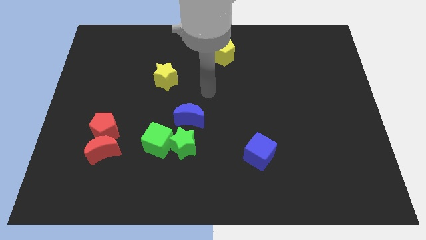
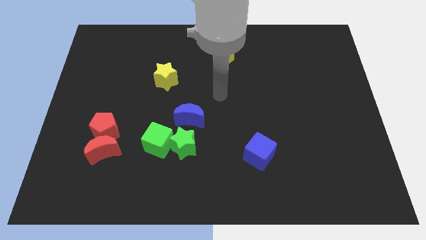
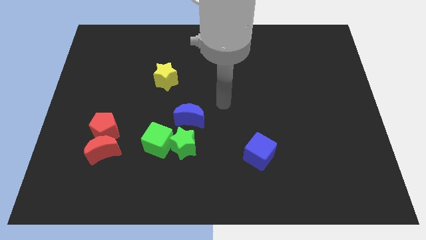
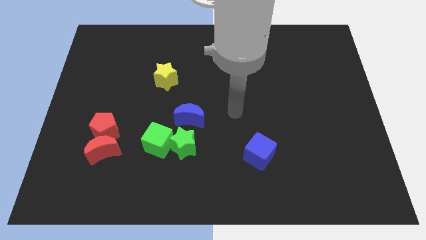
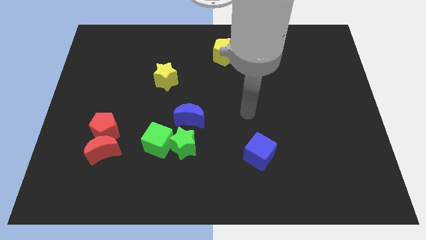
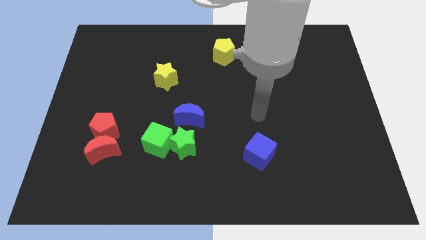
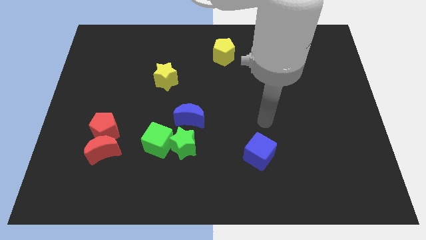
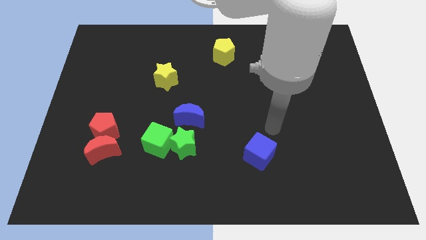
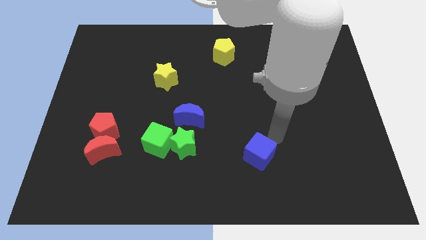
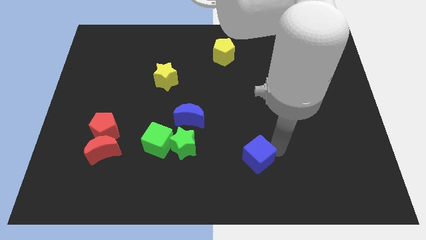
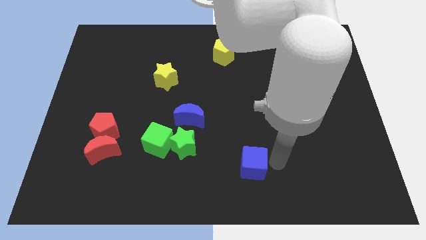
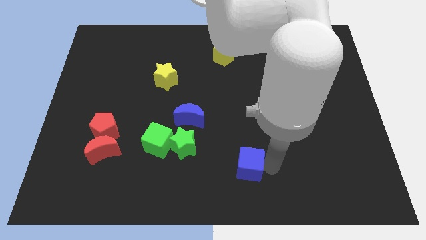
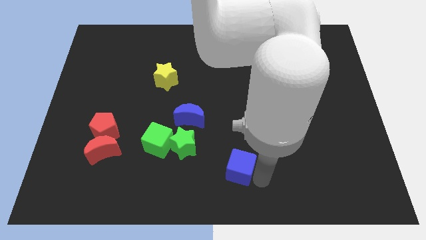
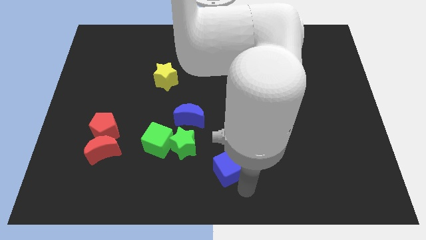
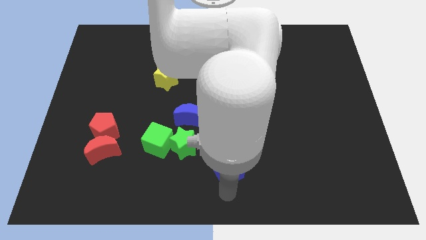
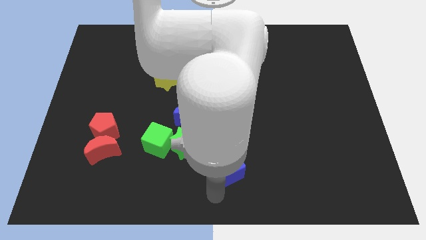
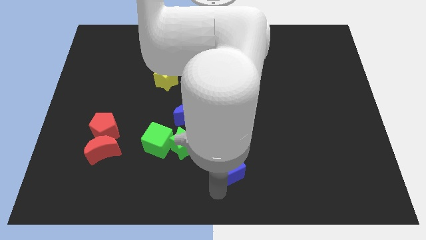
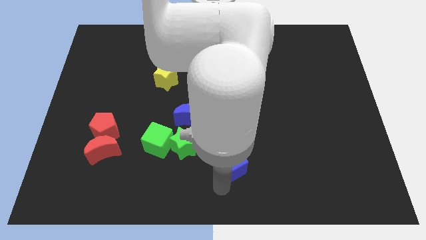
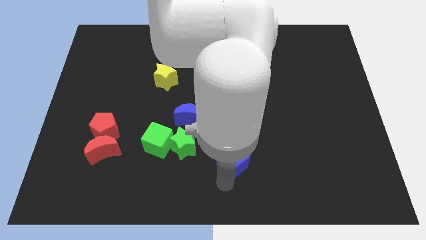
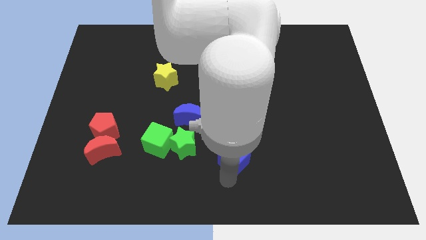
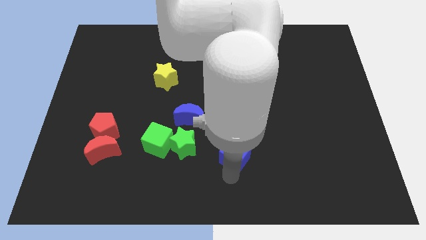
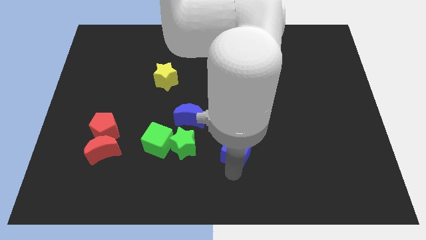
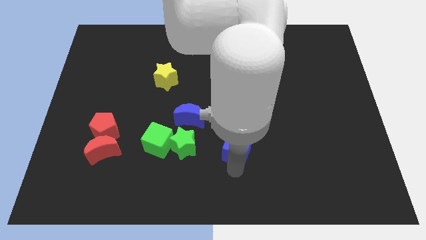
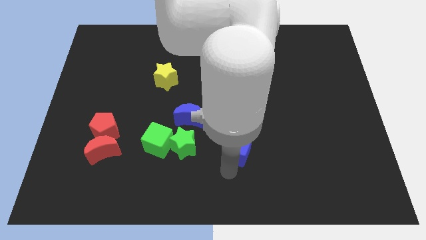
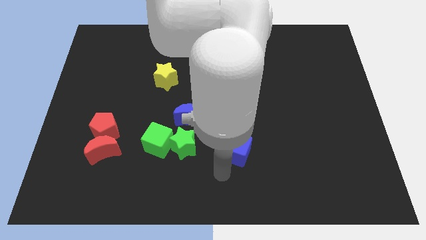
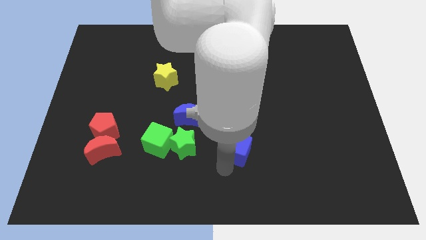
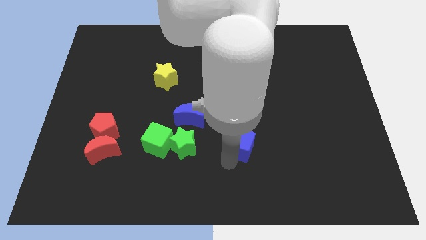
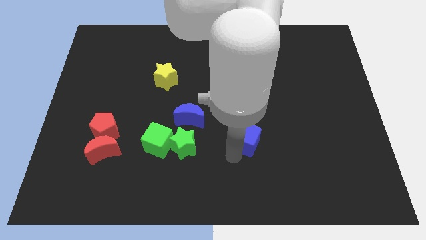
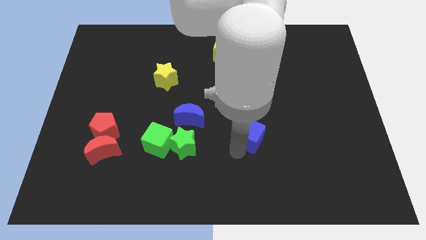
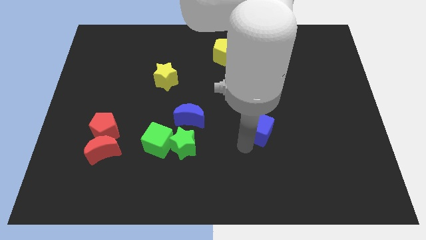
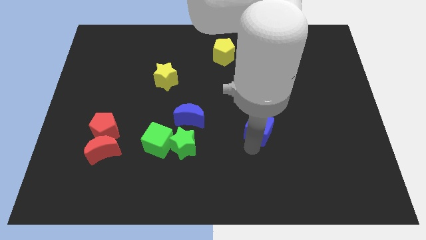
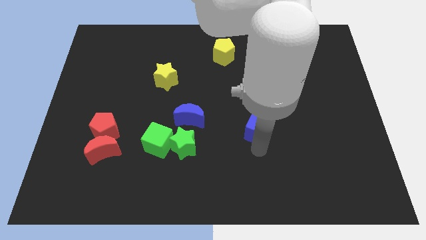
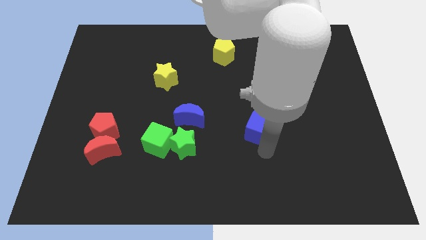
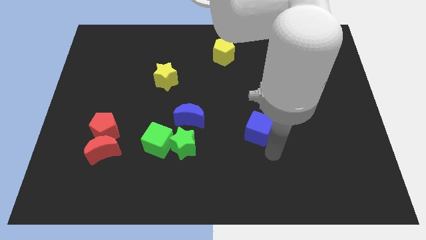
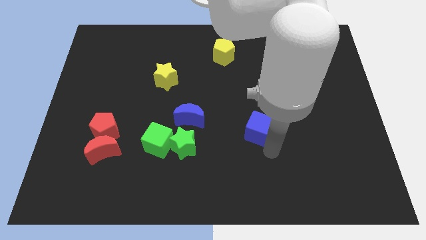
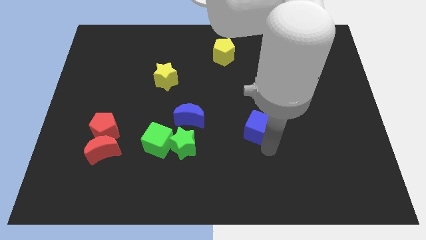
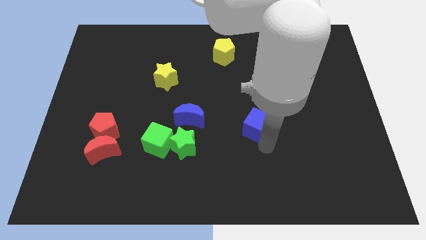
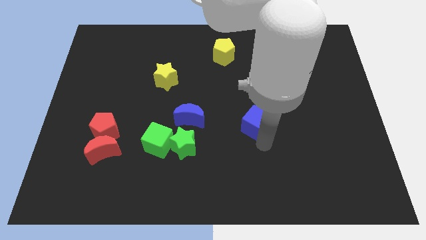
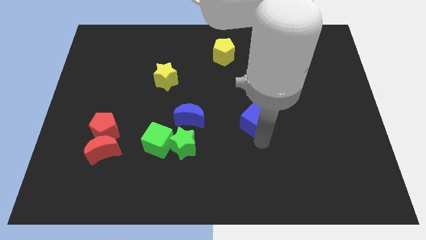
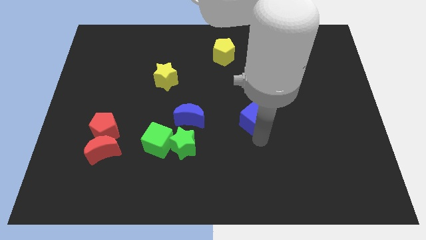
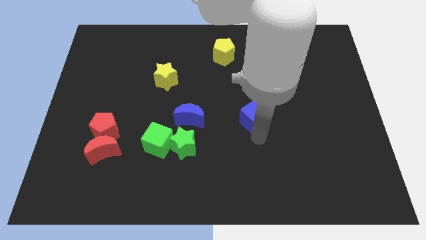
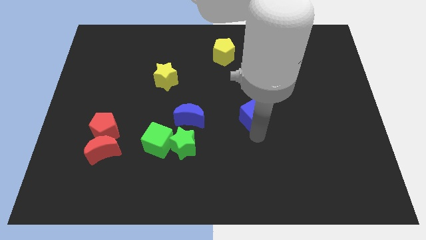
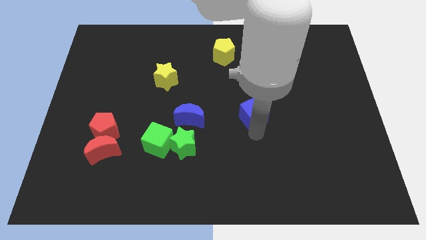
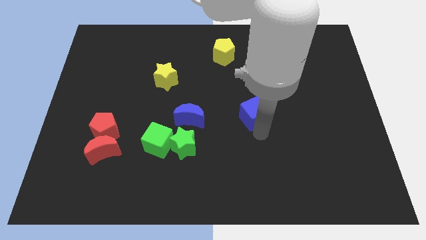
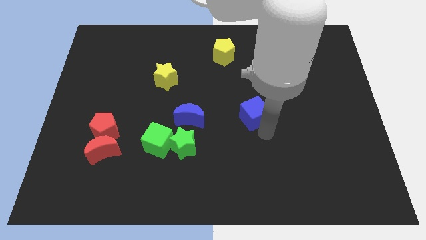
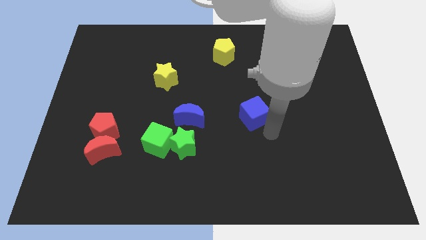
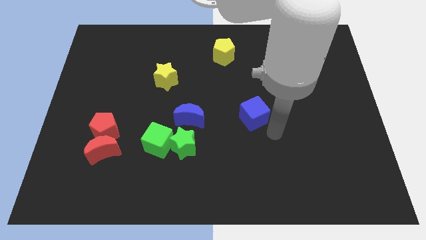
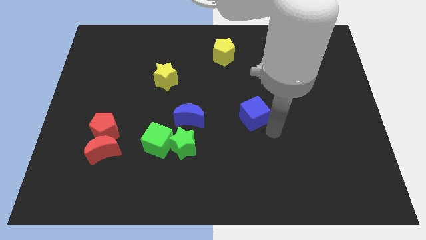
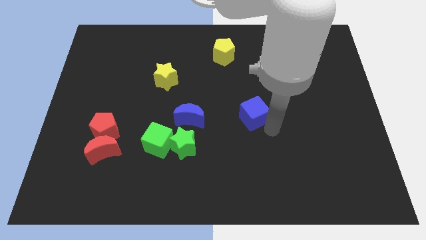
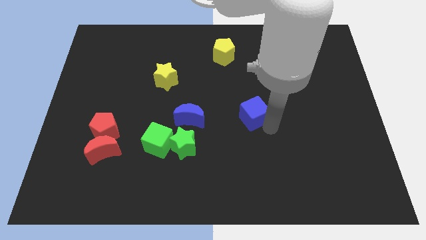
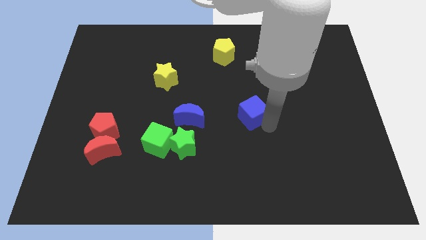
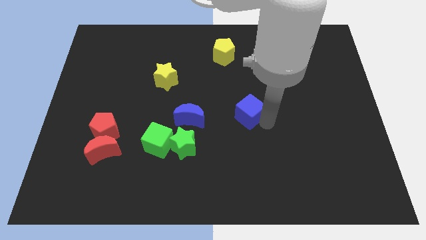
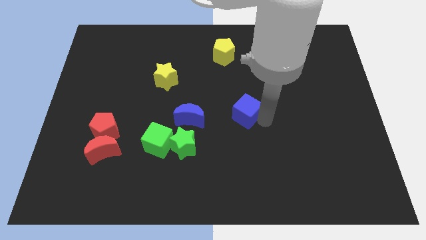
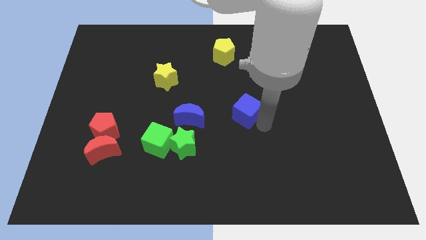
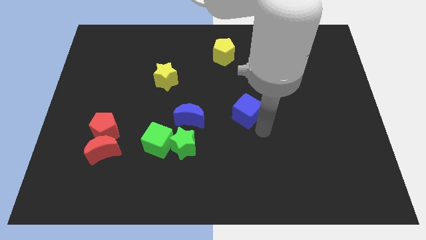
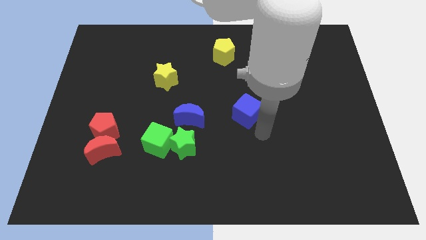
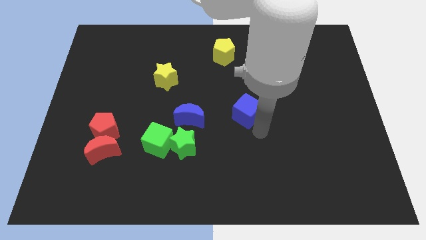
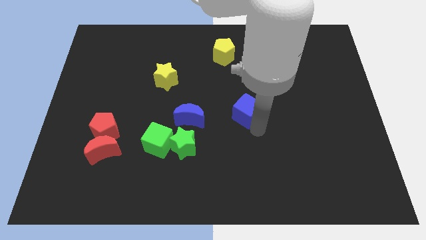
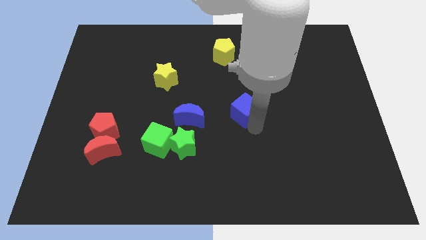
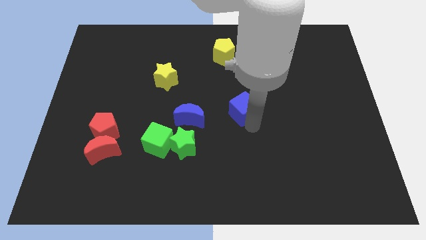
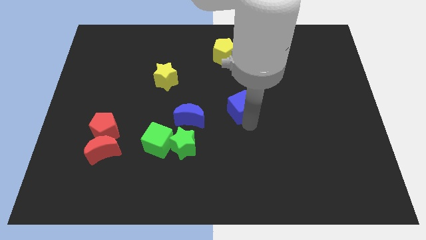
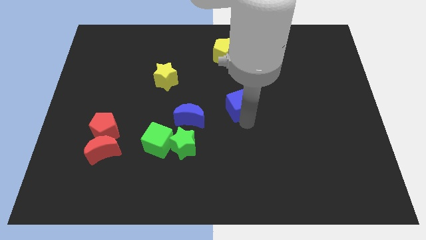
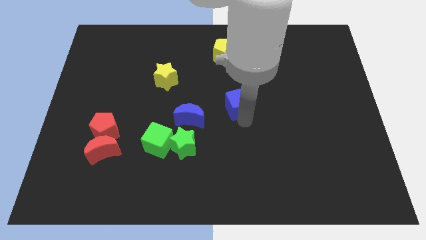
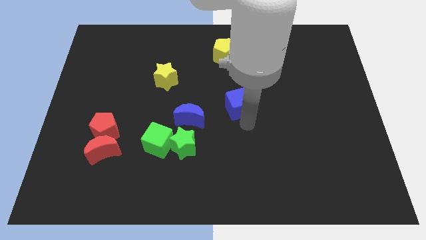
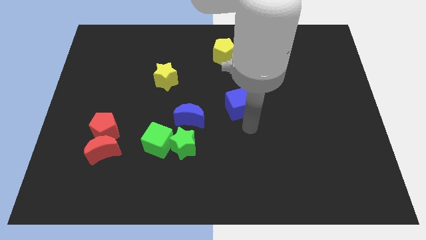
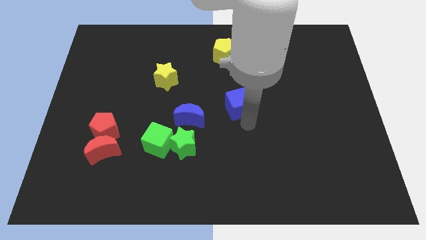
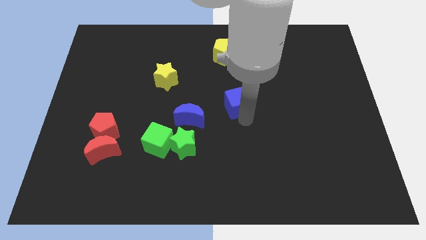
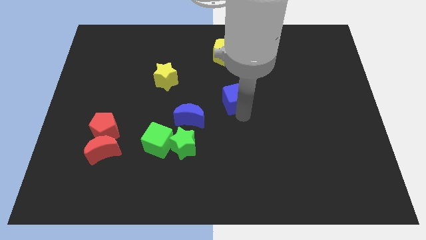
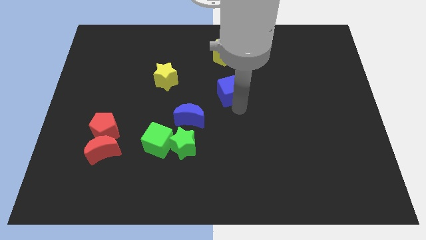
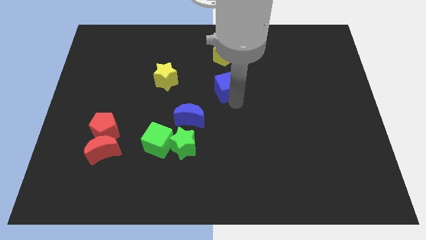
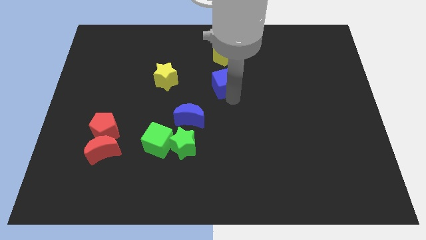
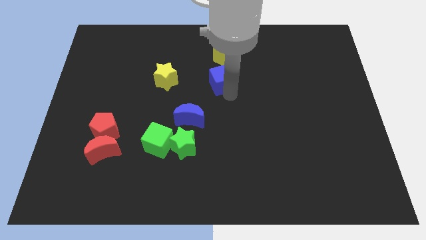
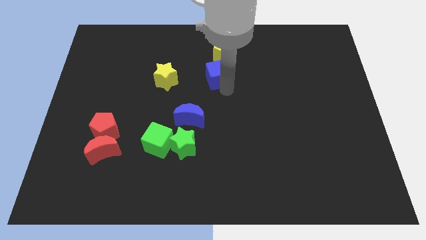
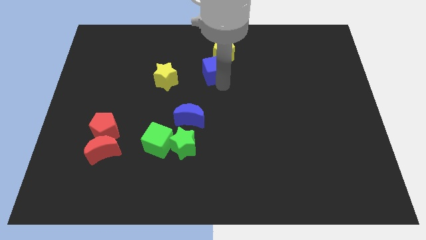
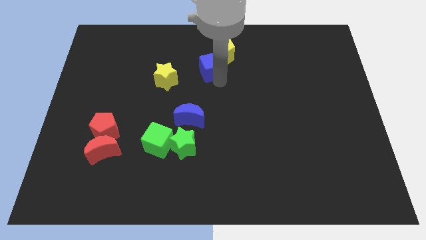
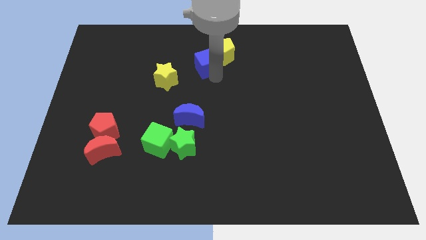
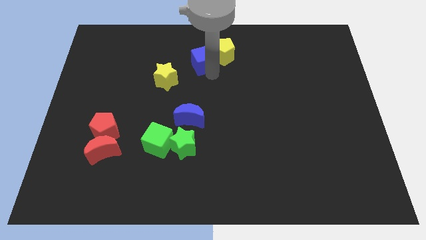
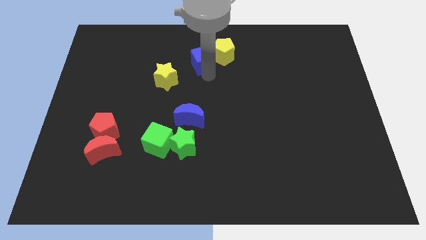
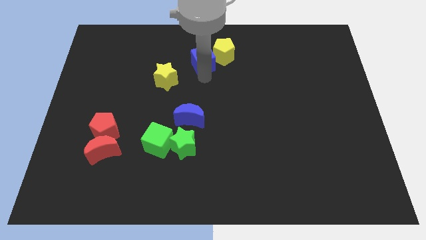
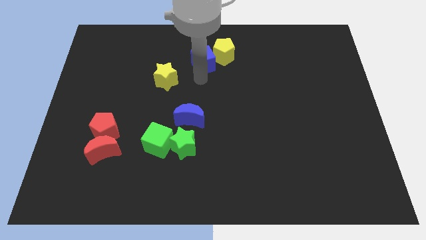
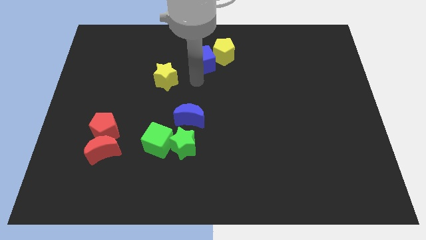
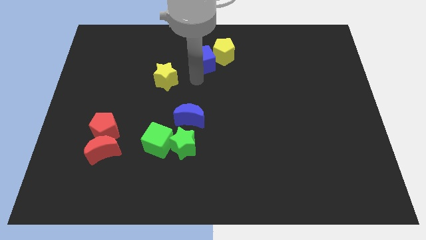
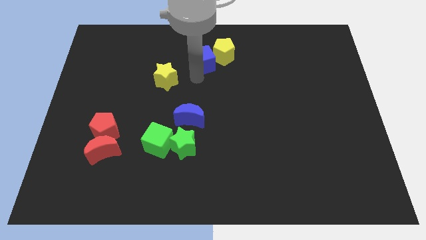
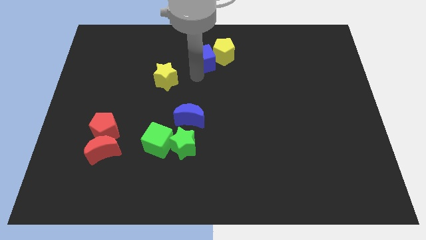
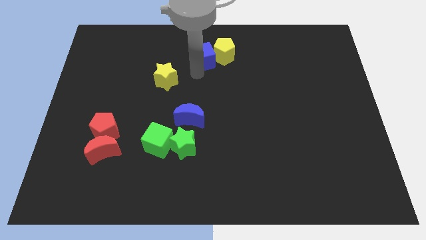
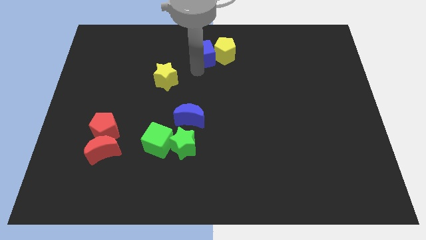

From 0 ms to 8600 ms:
slide the blue cube to the towards your base

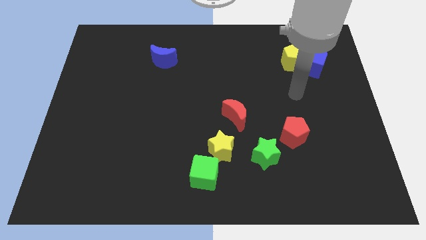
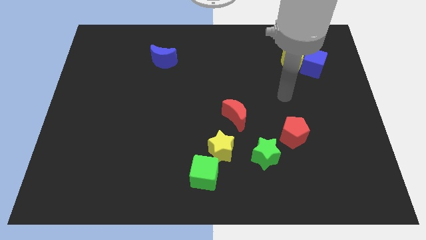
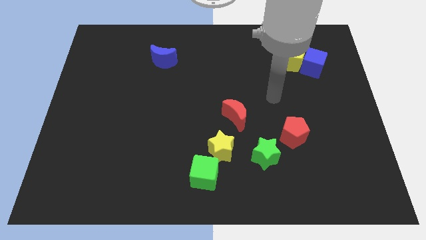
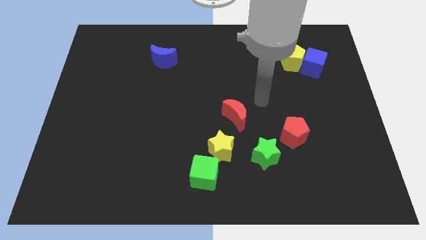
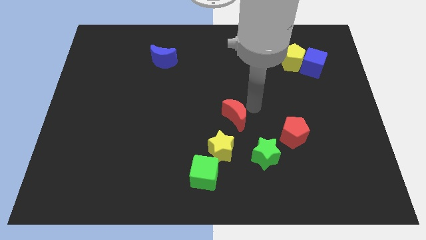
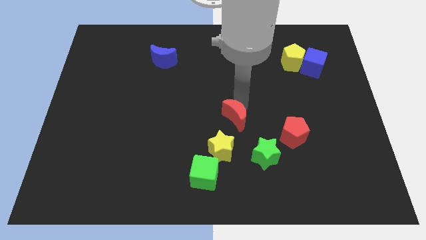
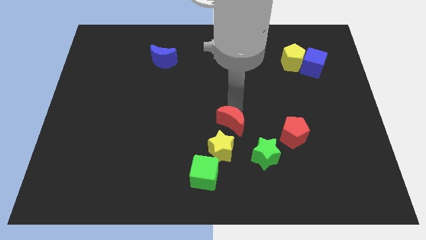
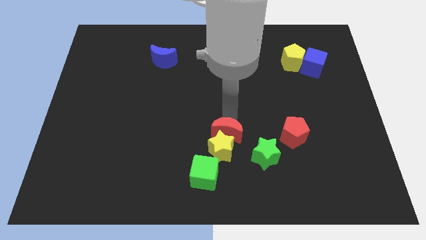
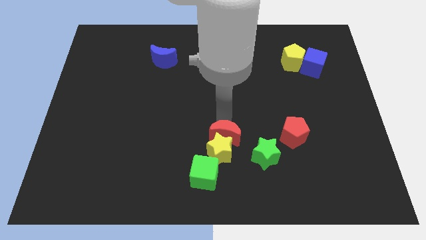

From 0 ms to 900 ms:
slide the yellow star to the bottom side
